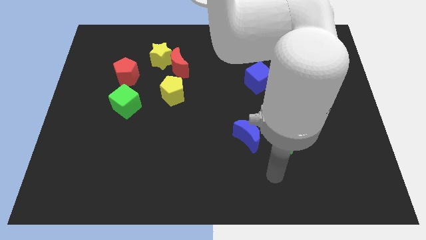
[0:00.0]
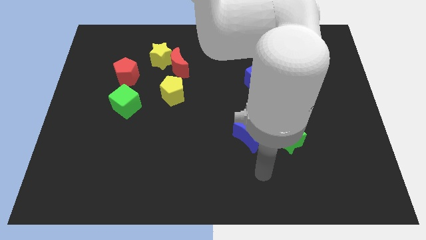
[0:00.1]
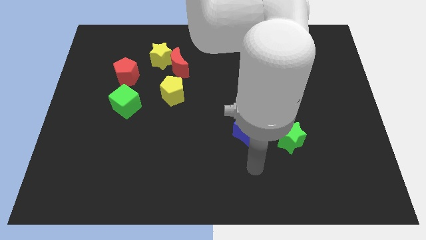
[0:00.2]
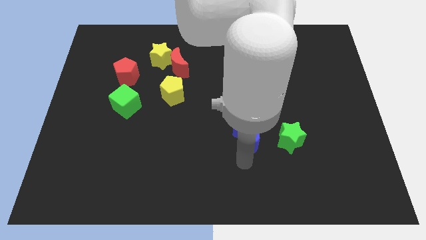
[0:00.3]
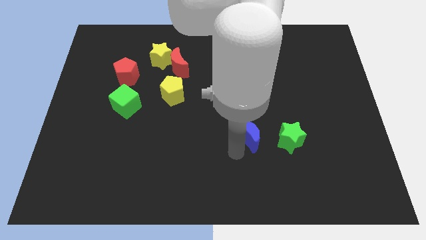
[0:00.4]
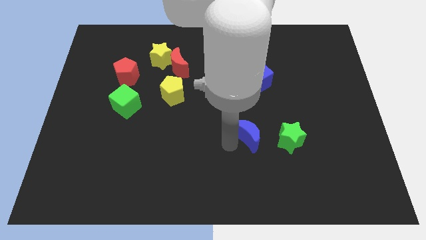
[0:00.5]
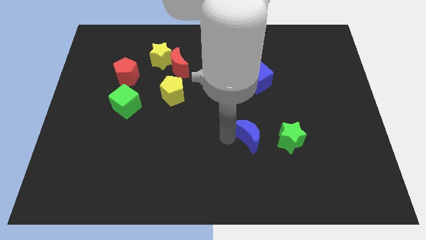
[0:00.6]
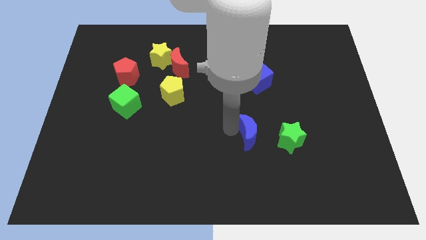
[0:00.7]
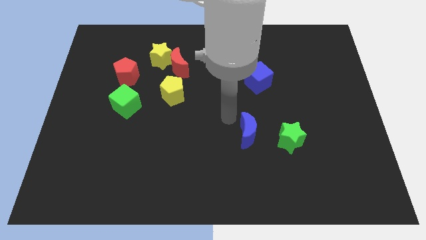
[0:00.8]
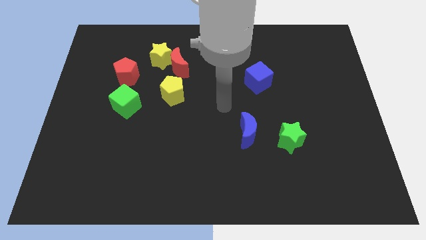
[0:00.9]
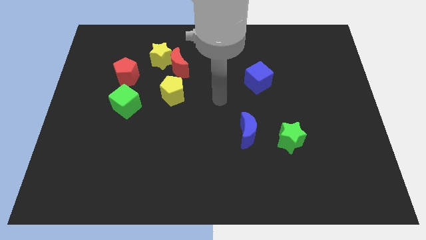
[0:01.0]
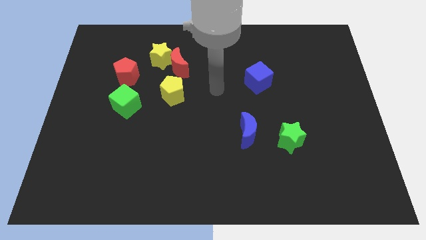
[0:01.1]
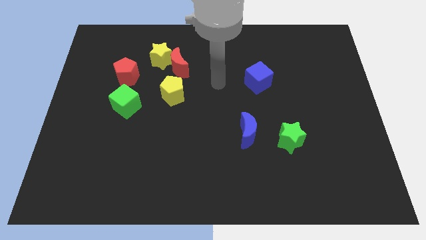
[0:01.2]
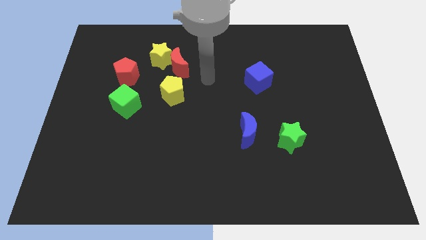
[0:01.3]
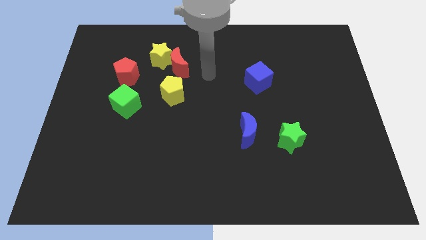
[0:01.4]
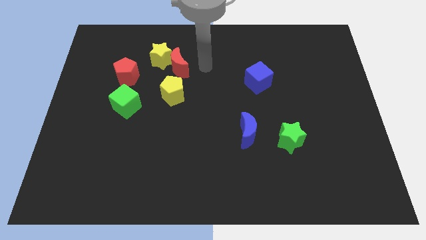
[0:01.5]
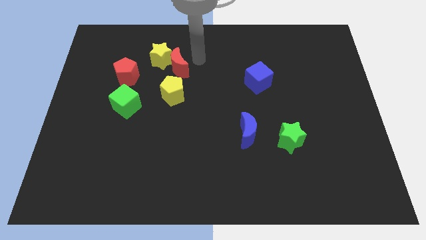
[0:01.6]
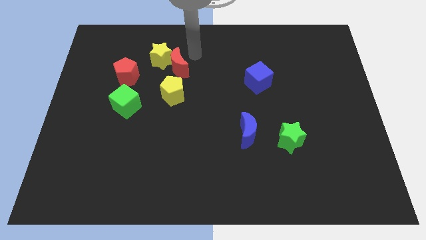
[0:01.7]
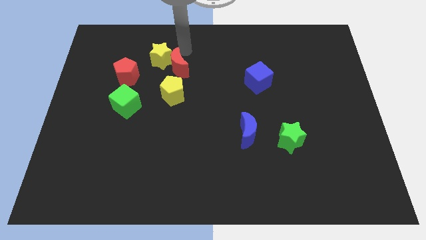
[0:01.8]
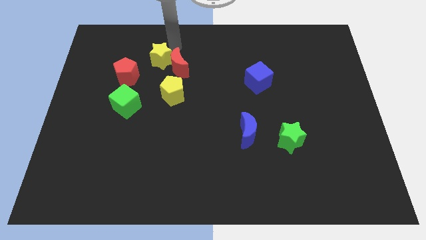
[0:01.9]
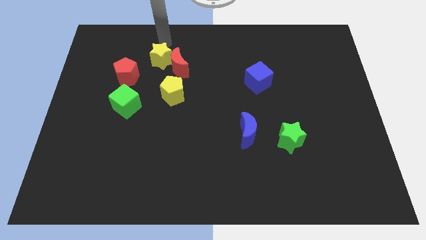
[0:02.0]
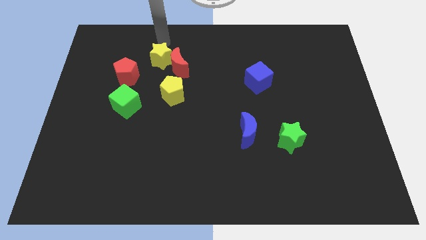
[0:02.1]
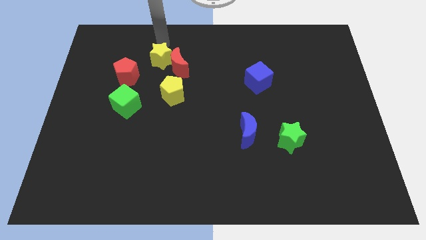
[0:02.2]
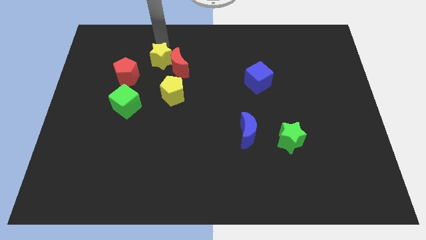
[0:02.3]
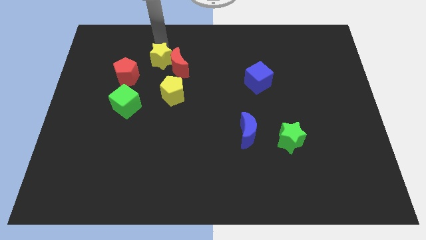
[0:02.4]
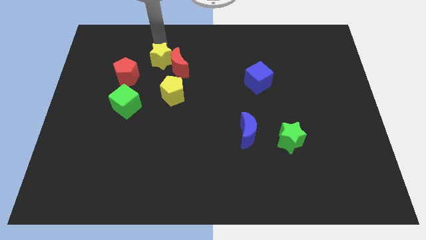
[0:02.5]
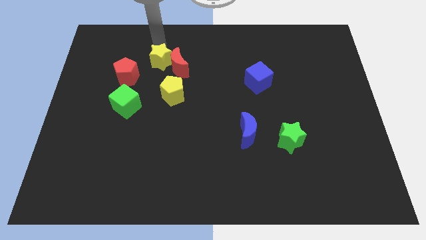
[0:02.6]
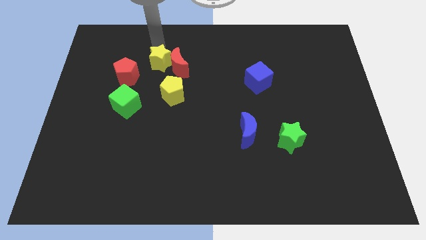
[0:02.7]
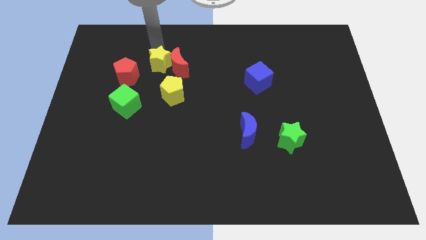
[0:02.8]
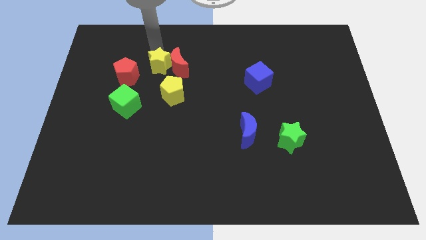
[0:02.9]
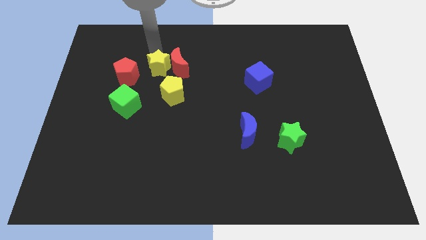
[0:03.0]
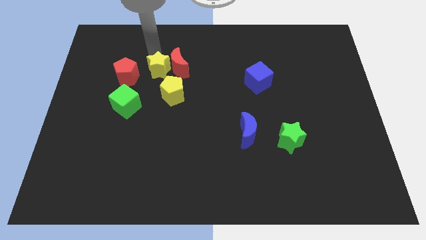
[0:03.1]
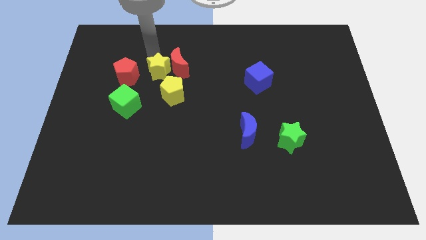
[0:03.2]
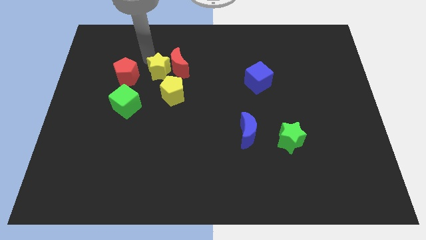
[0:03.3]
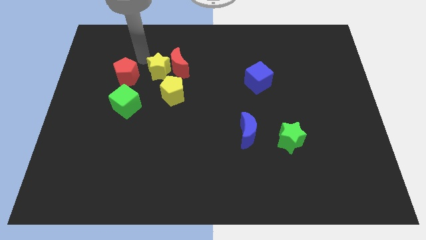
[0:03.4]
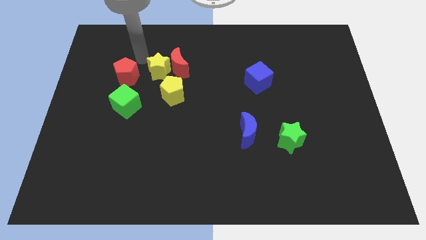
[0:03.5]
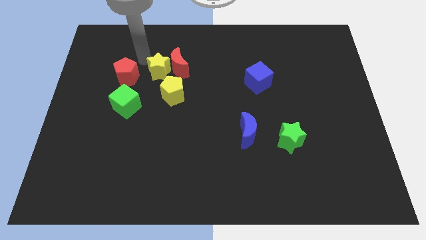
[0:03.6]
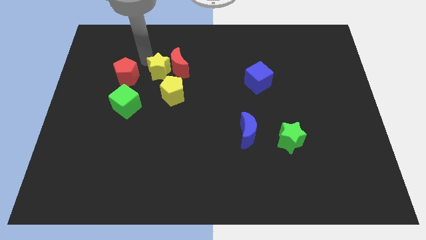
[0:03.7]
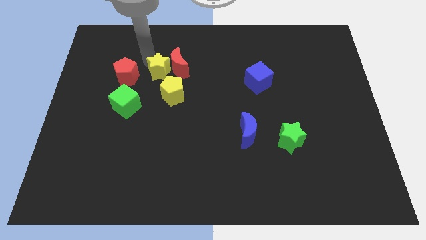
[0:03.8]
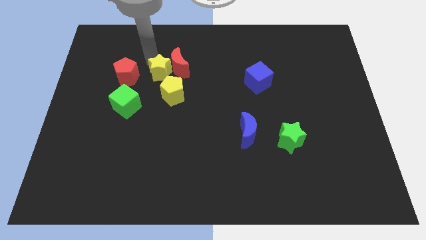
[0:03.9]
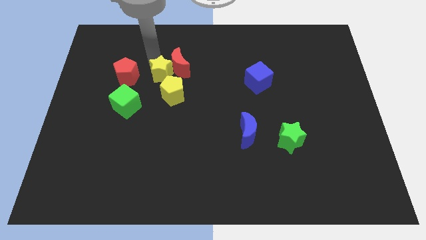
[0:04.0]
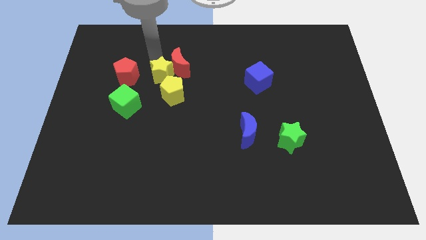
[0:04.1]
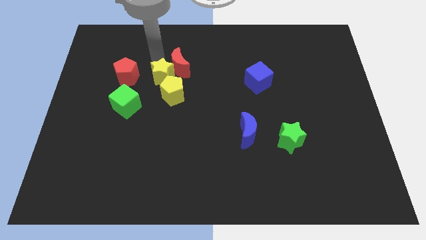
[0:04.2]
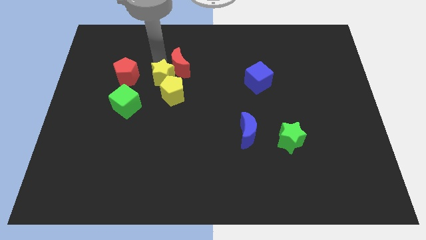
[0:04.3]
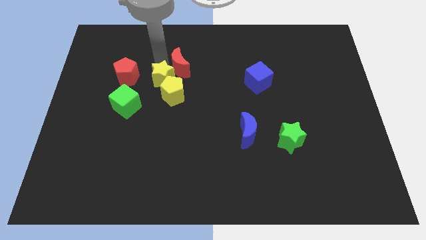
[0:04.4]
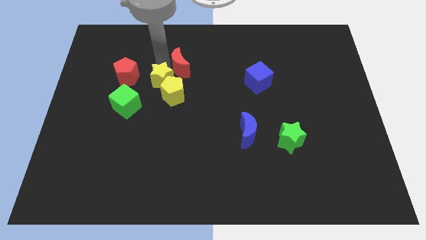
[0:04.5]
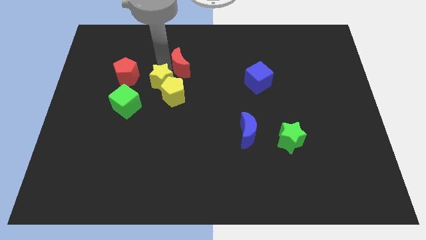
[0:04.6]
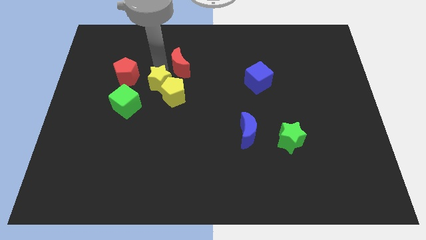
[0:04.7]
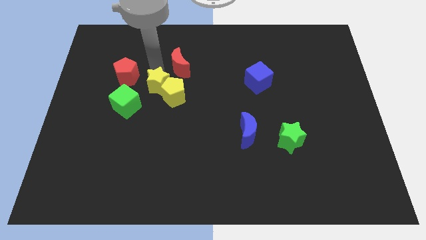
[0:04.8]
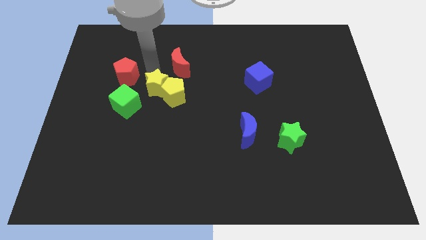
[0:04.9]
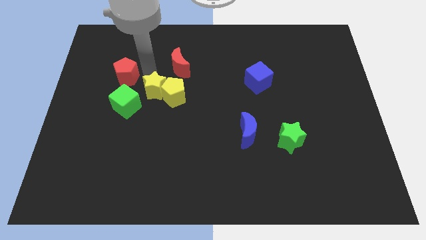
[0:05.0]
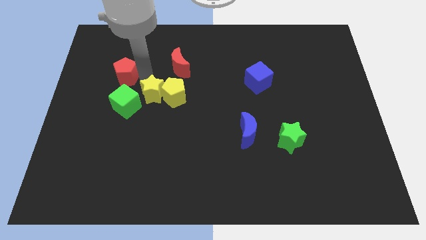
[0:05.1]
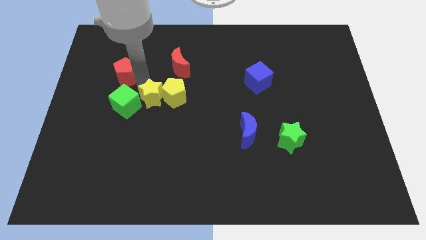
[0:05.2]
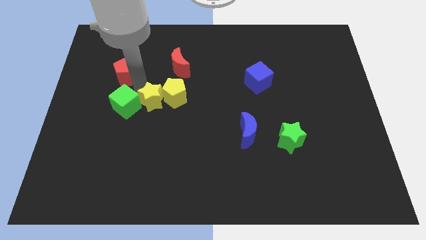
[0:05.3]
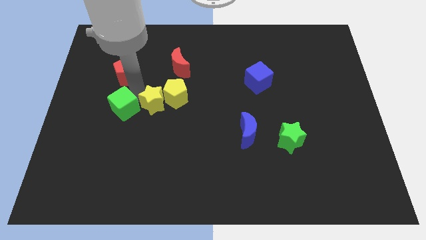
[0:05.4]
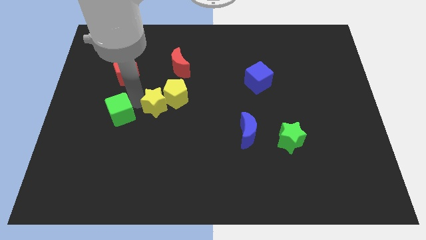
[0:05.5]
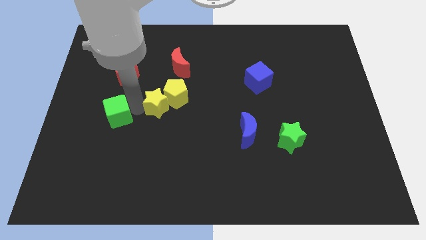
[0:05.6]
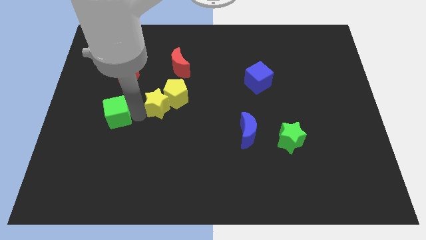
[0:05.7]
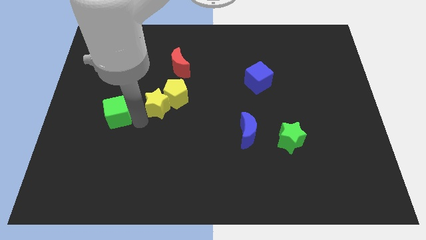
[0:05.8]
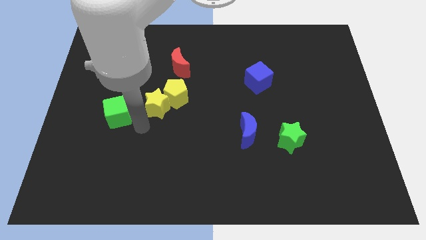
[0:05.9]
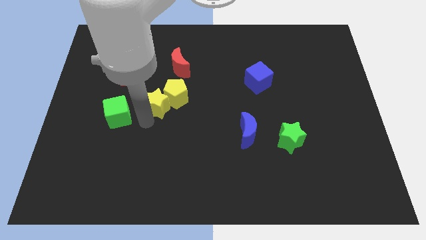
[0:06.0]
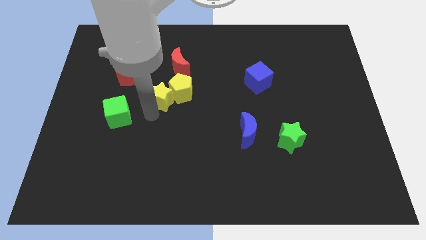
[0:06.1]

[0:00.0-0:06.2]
slide the yellow star downwards and then to the right somewhat

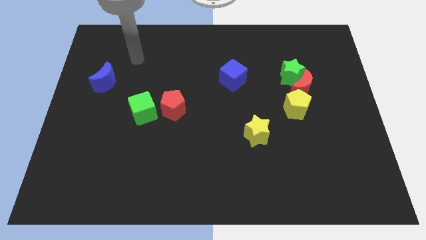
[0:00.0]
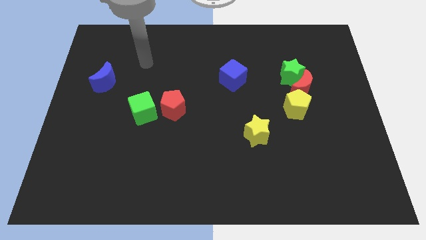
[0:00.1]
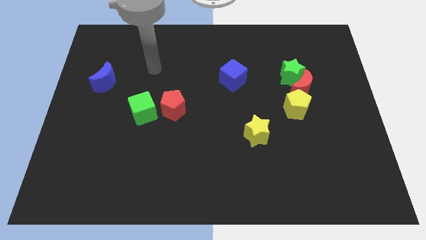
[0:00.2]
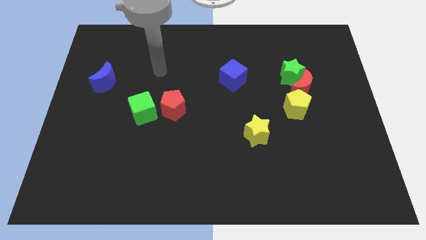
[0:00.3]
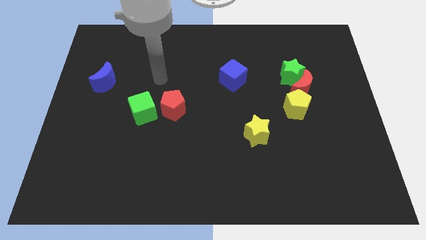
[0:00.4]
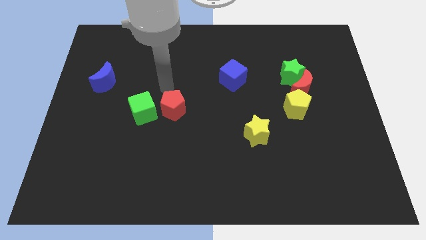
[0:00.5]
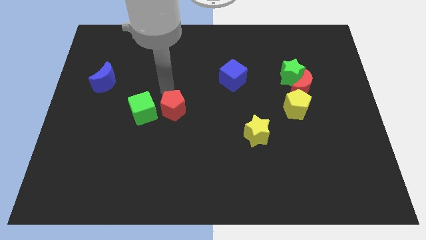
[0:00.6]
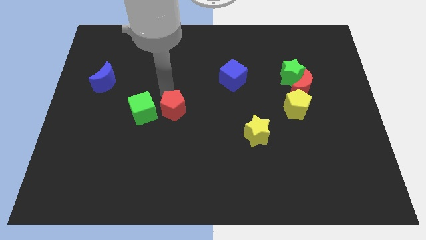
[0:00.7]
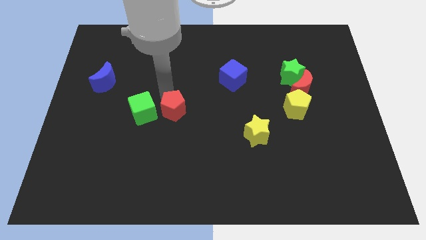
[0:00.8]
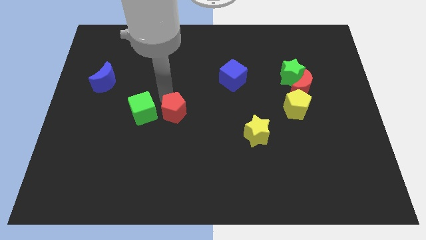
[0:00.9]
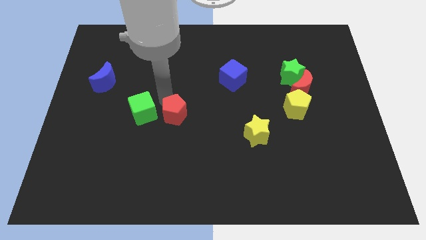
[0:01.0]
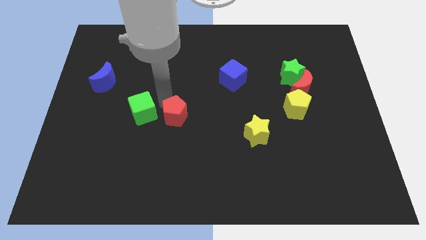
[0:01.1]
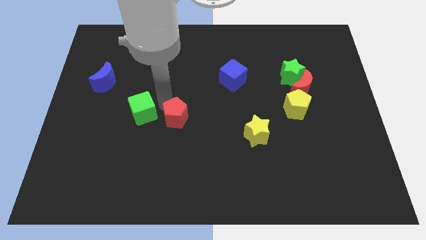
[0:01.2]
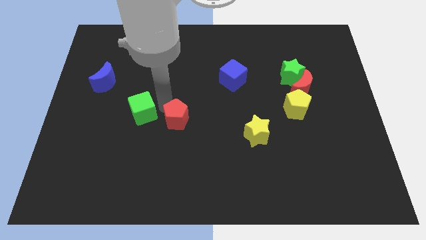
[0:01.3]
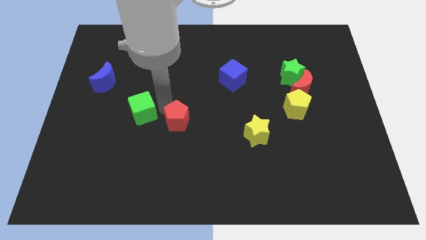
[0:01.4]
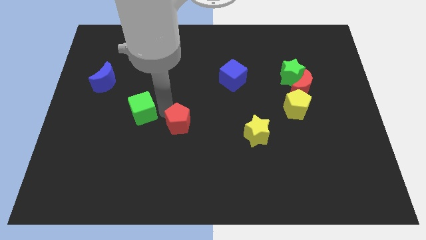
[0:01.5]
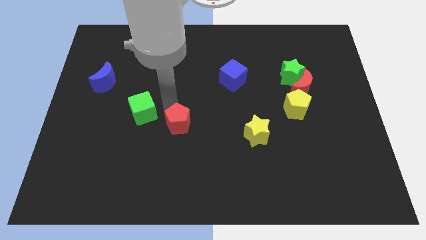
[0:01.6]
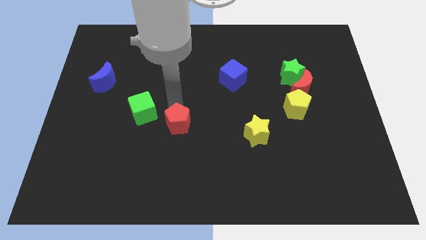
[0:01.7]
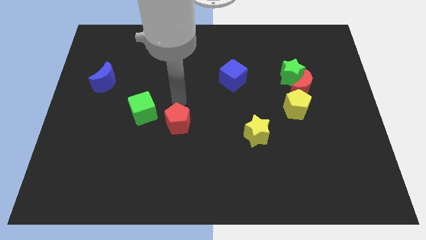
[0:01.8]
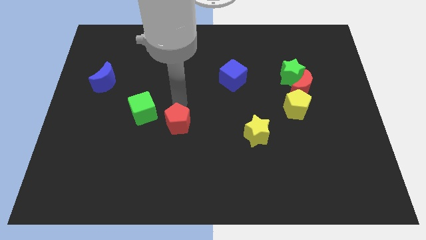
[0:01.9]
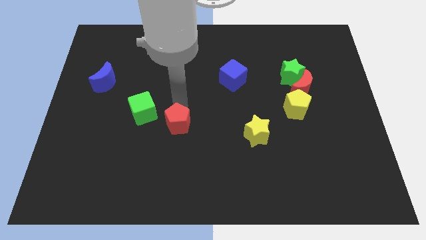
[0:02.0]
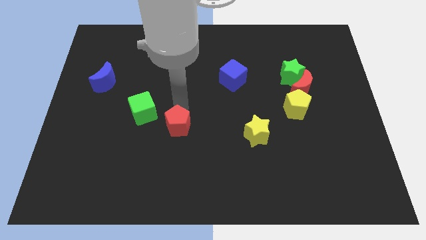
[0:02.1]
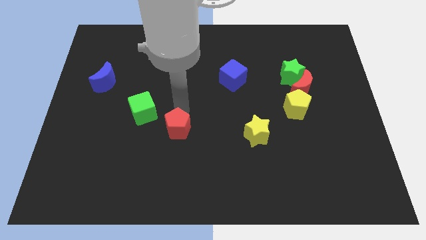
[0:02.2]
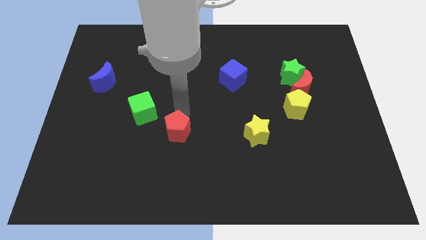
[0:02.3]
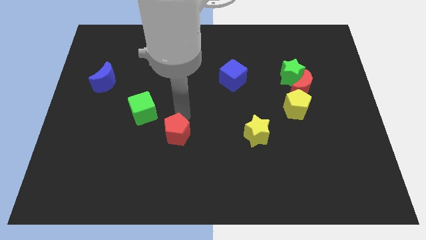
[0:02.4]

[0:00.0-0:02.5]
slightly slide the red pentagon downwards
